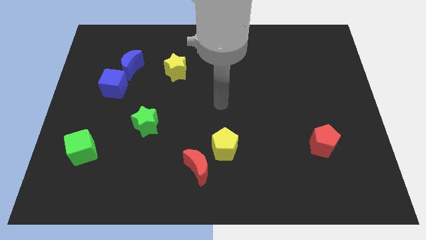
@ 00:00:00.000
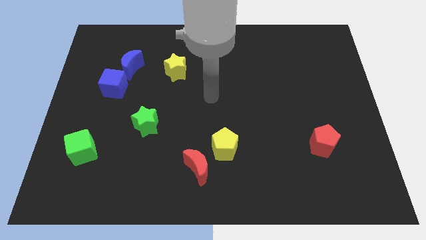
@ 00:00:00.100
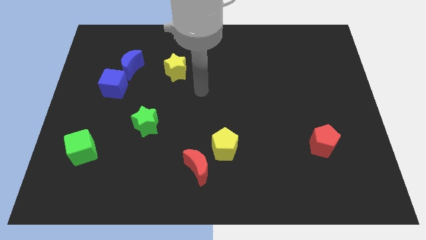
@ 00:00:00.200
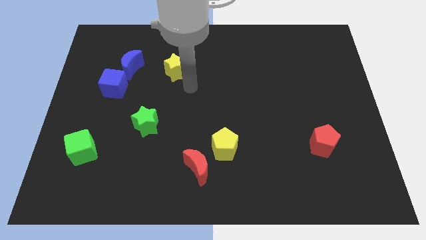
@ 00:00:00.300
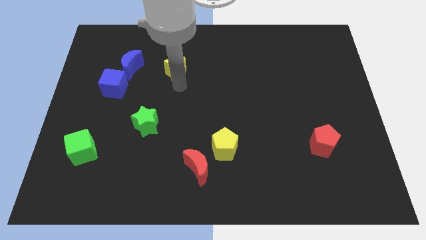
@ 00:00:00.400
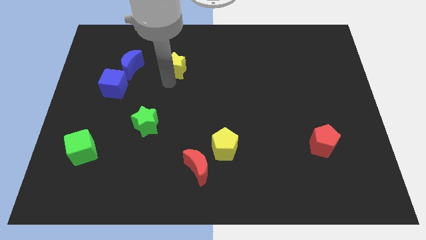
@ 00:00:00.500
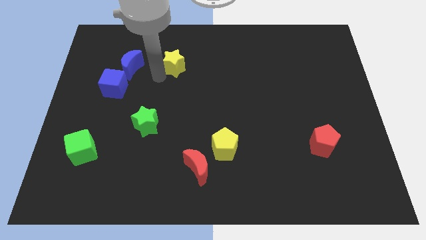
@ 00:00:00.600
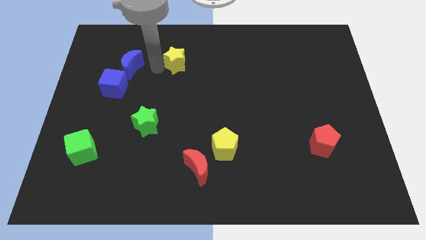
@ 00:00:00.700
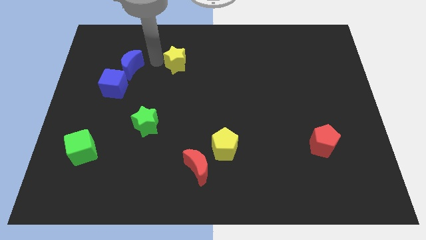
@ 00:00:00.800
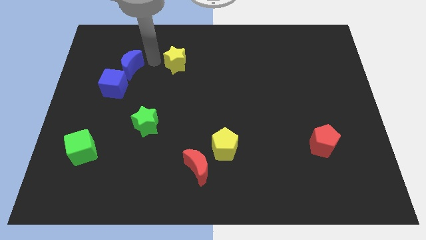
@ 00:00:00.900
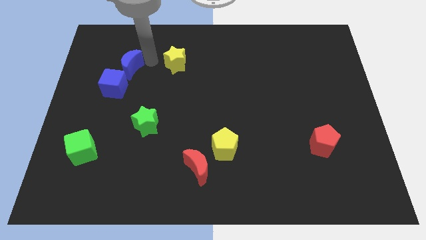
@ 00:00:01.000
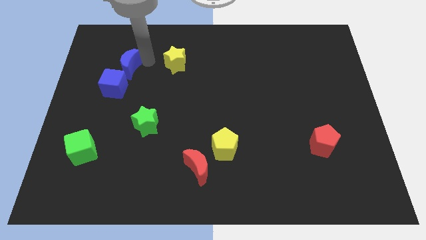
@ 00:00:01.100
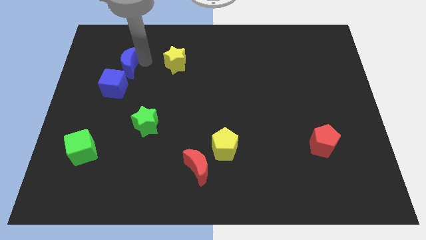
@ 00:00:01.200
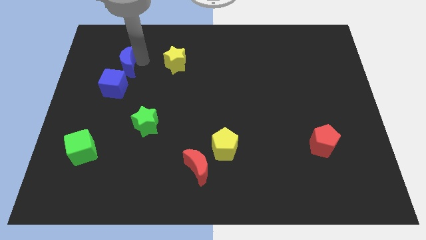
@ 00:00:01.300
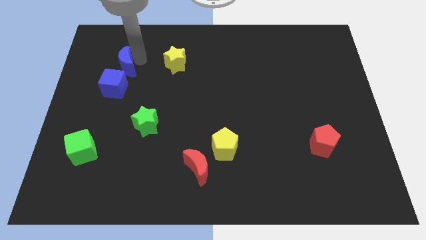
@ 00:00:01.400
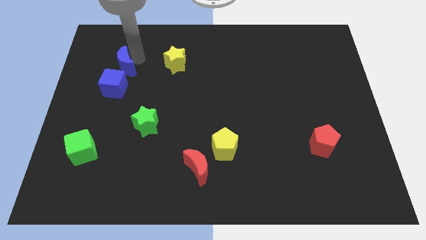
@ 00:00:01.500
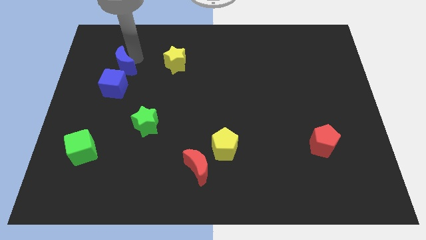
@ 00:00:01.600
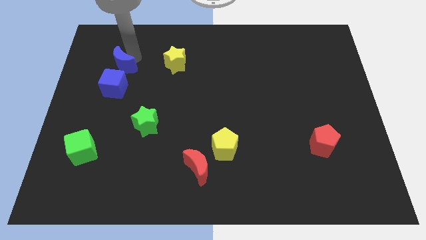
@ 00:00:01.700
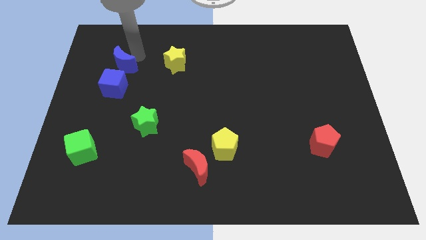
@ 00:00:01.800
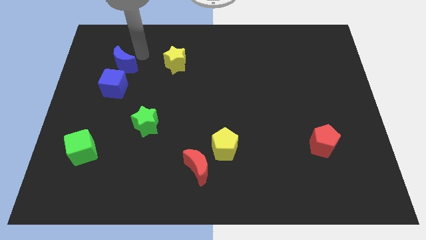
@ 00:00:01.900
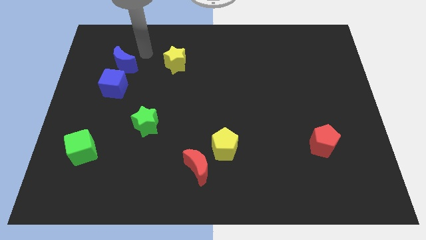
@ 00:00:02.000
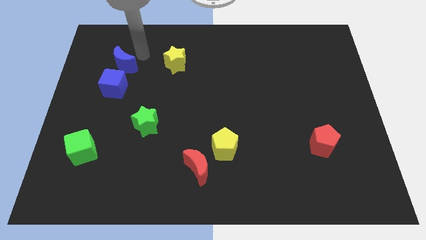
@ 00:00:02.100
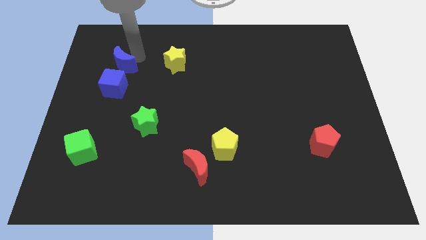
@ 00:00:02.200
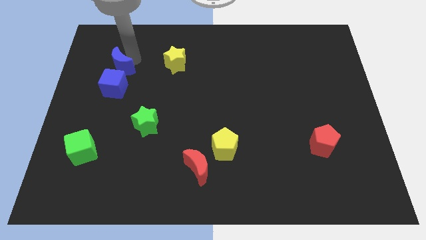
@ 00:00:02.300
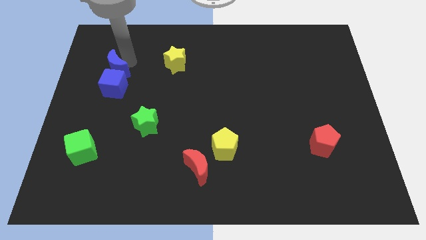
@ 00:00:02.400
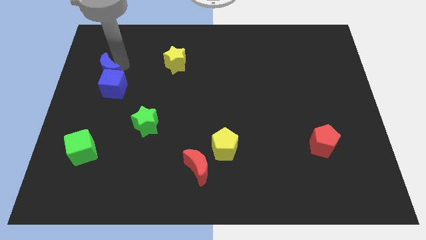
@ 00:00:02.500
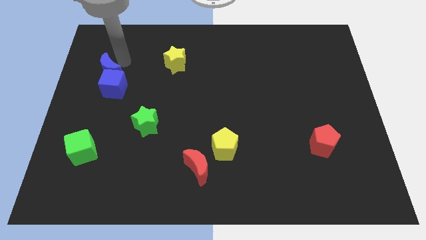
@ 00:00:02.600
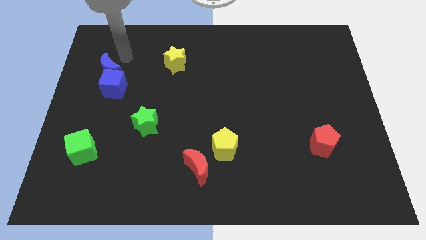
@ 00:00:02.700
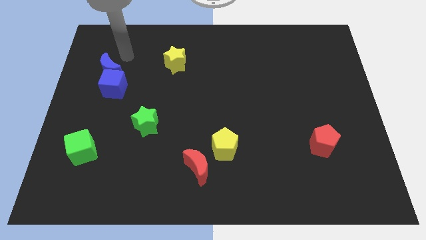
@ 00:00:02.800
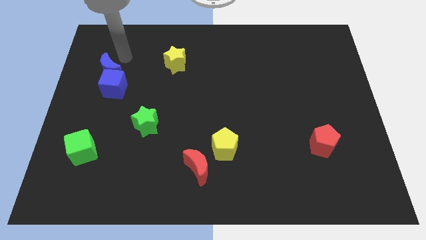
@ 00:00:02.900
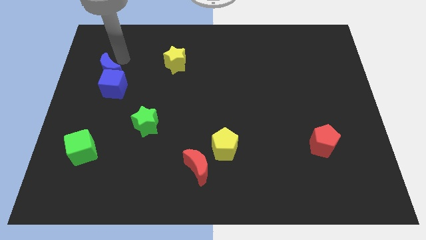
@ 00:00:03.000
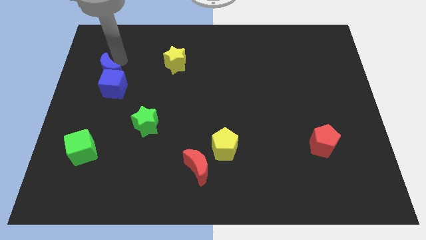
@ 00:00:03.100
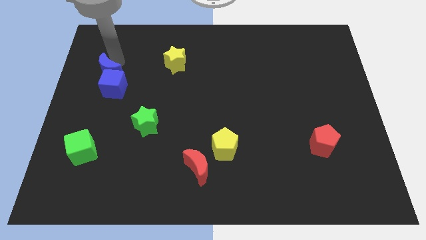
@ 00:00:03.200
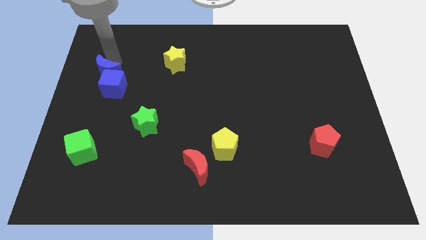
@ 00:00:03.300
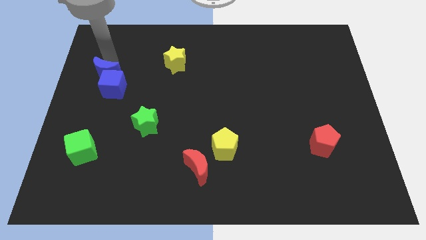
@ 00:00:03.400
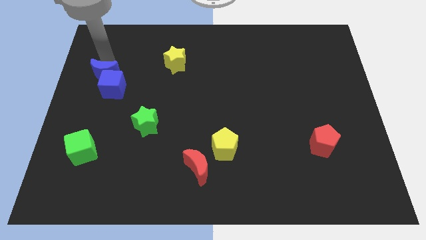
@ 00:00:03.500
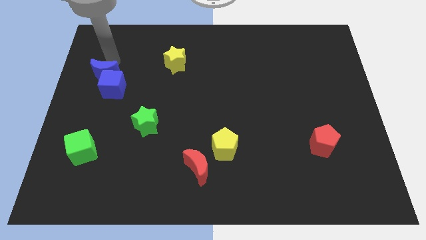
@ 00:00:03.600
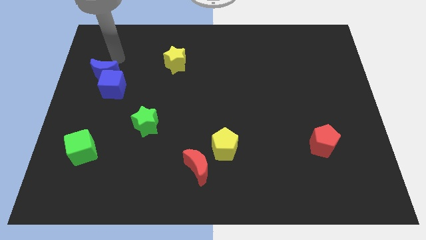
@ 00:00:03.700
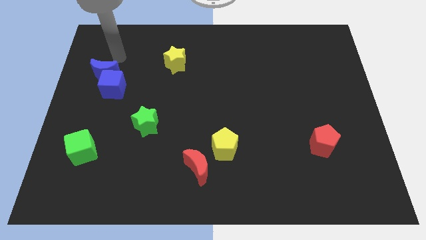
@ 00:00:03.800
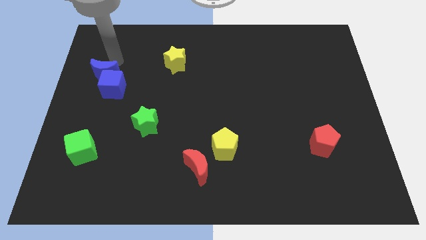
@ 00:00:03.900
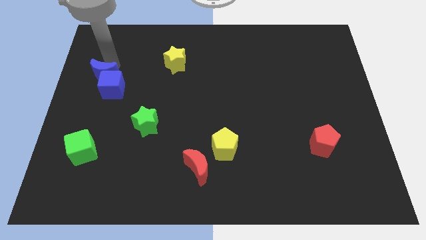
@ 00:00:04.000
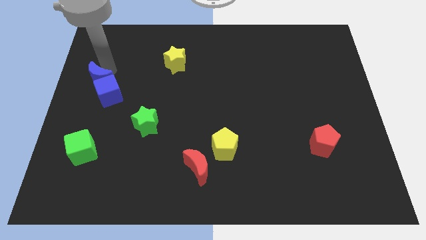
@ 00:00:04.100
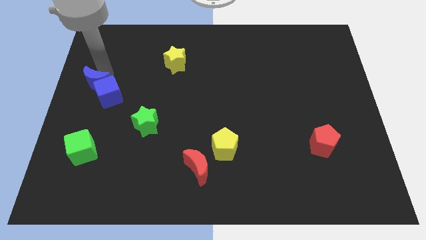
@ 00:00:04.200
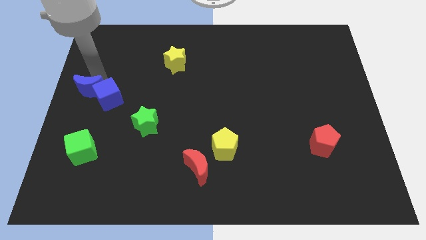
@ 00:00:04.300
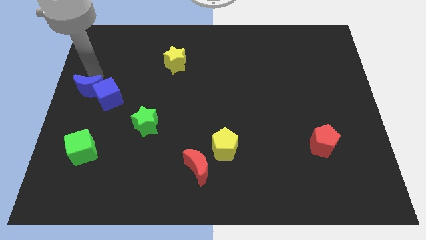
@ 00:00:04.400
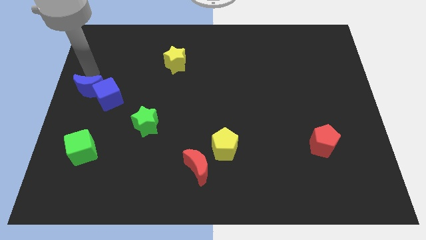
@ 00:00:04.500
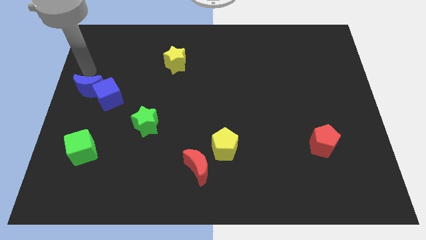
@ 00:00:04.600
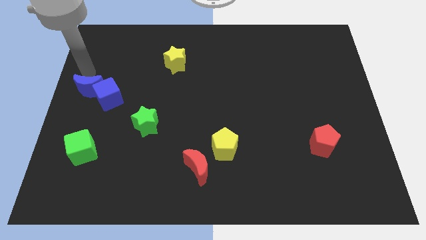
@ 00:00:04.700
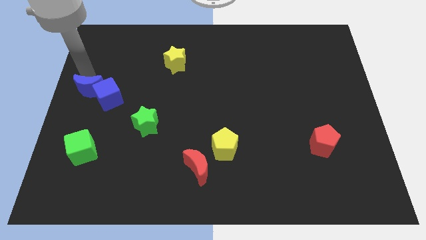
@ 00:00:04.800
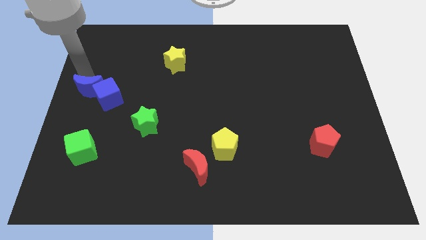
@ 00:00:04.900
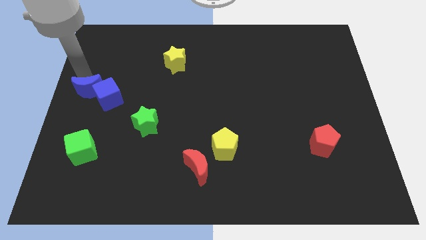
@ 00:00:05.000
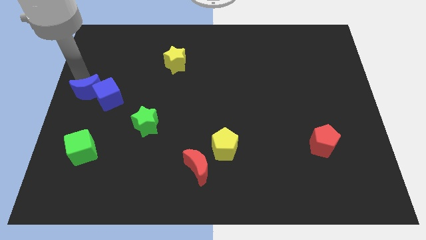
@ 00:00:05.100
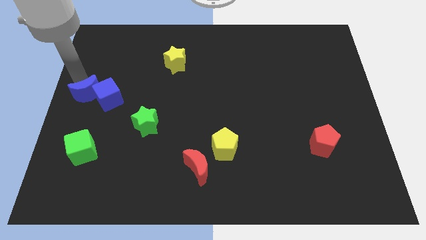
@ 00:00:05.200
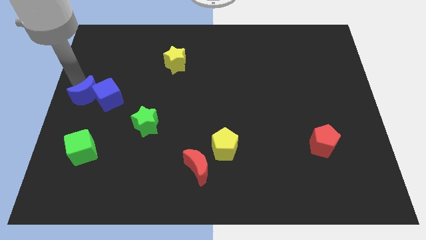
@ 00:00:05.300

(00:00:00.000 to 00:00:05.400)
push the blue moon above the green cube
